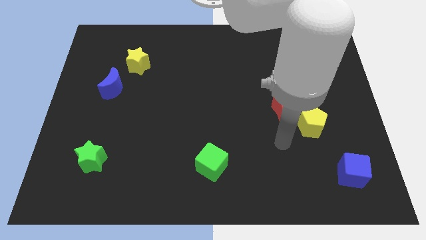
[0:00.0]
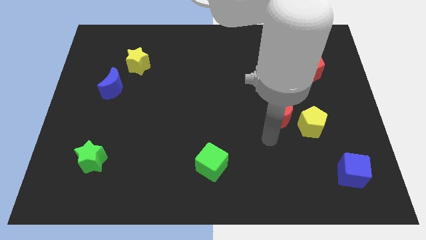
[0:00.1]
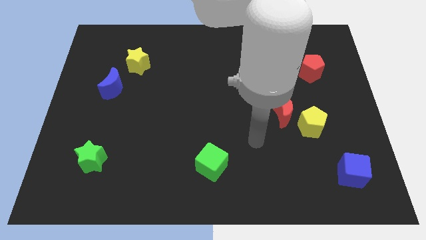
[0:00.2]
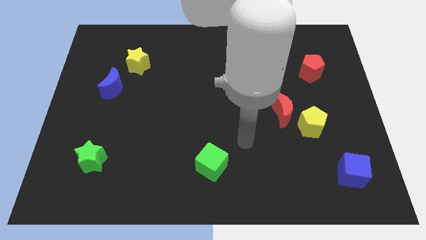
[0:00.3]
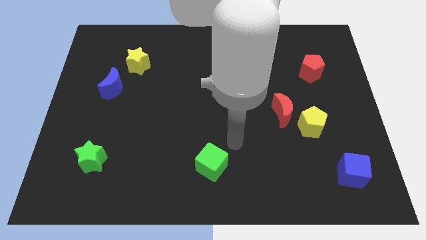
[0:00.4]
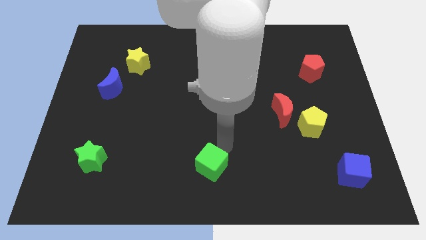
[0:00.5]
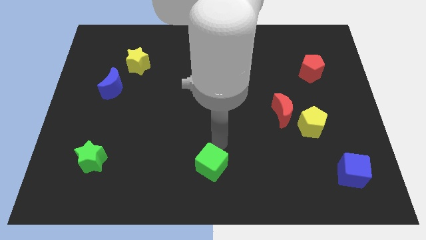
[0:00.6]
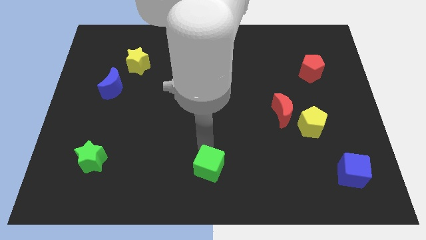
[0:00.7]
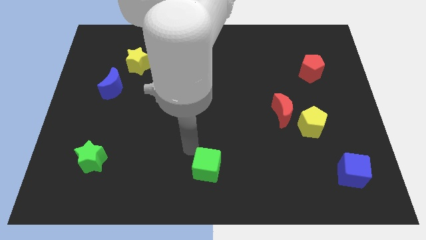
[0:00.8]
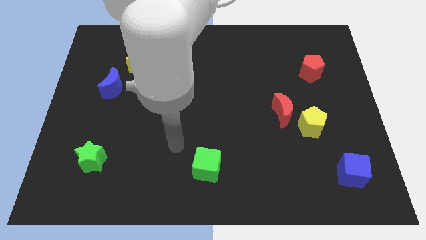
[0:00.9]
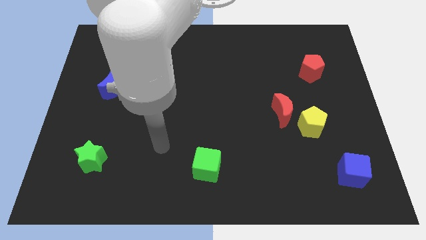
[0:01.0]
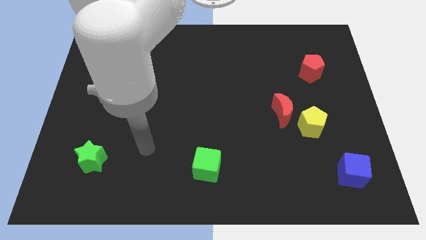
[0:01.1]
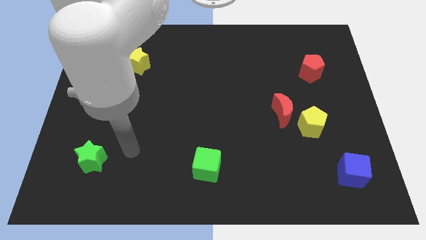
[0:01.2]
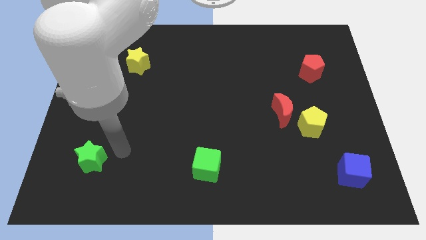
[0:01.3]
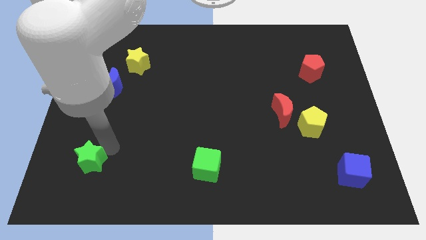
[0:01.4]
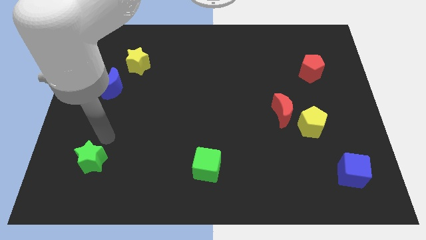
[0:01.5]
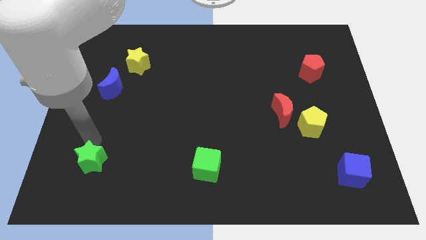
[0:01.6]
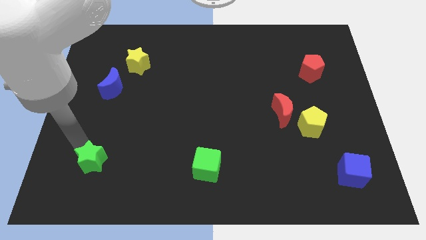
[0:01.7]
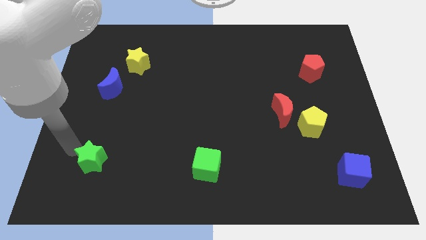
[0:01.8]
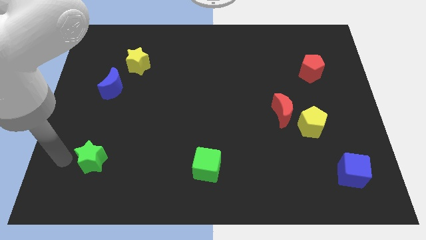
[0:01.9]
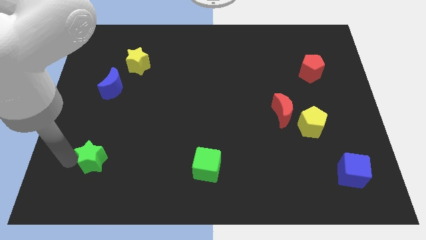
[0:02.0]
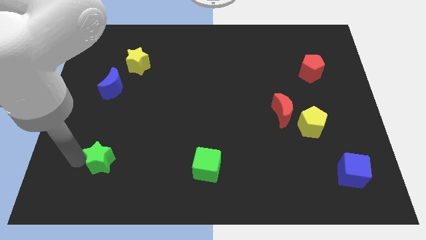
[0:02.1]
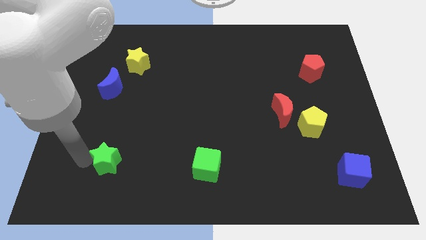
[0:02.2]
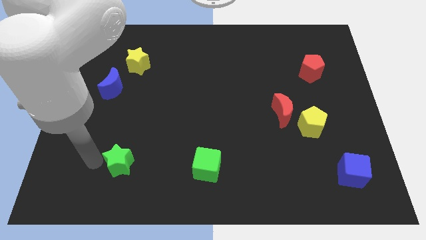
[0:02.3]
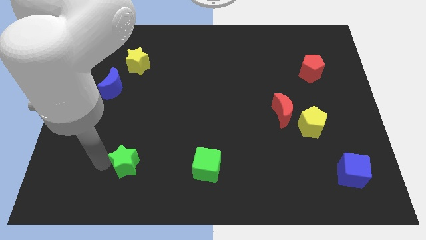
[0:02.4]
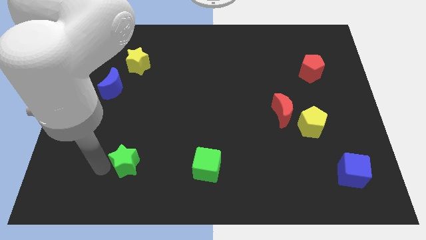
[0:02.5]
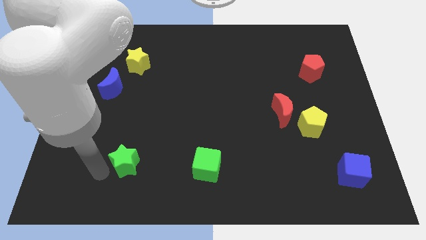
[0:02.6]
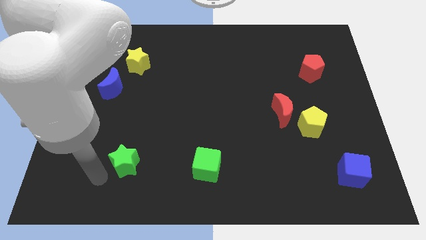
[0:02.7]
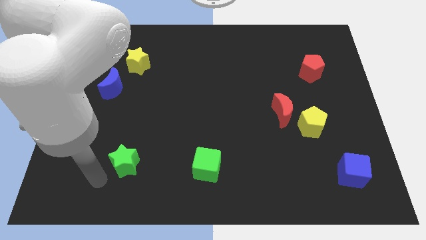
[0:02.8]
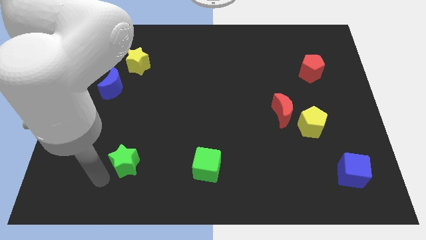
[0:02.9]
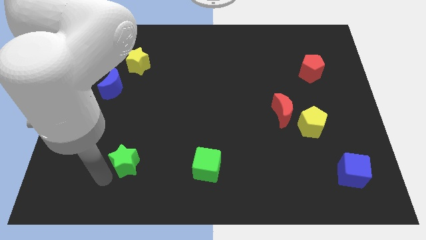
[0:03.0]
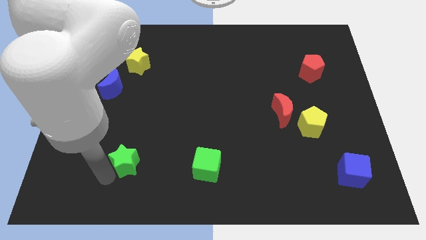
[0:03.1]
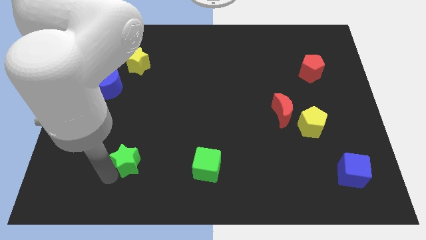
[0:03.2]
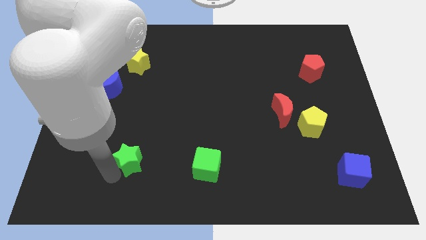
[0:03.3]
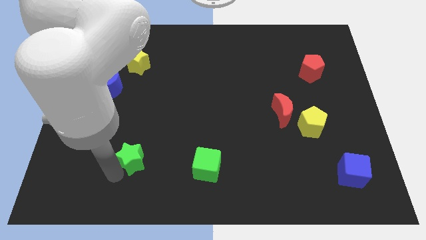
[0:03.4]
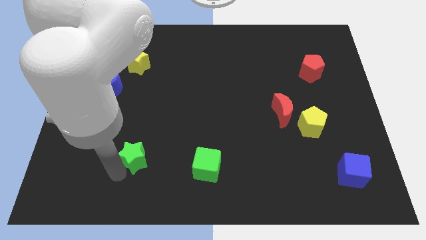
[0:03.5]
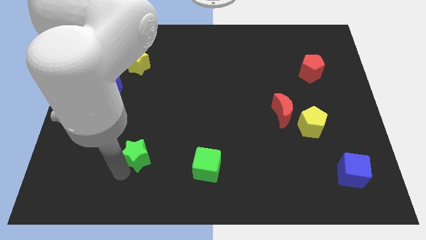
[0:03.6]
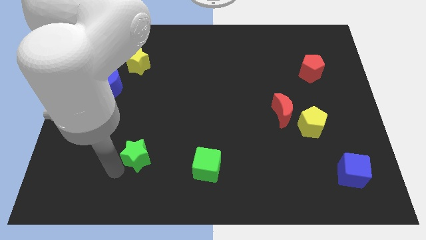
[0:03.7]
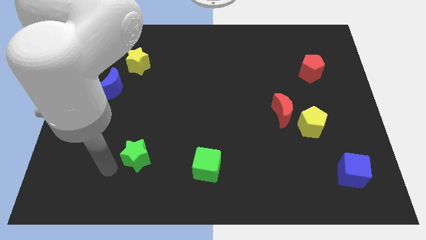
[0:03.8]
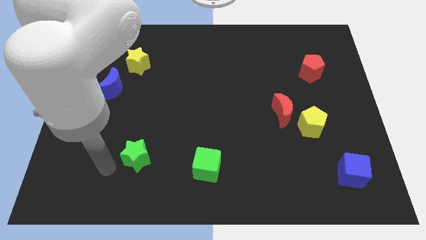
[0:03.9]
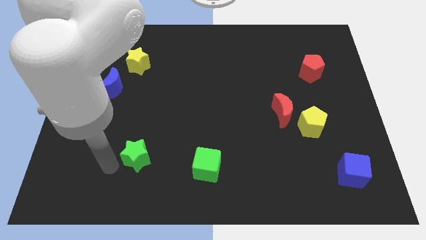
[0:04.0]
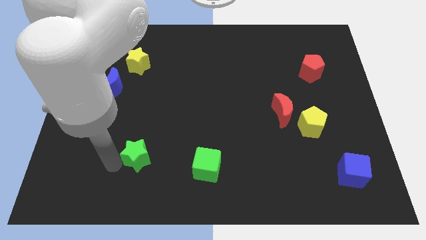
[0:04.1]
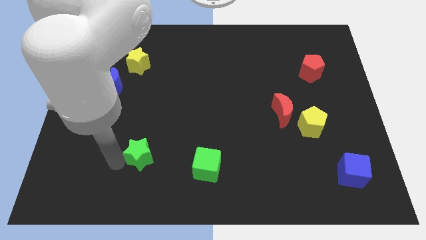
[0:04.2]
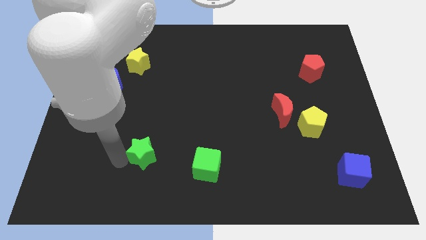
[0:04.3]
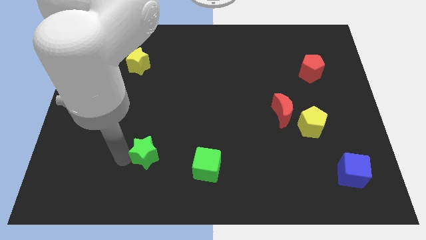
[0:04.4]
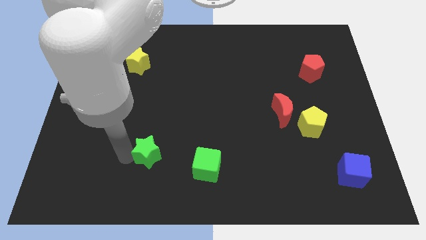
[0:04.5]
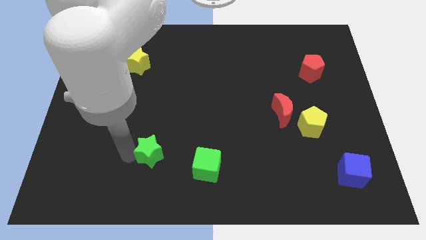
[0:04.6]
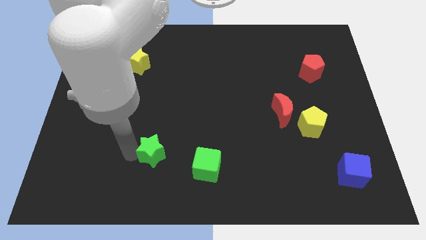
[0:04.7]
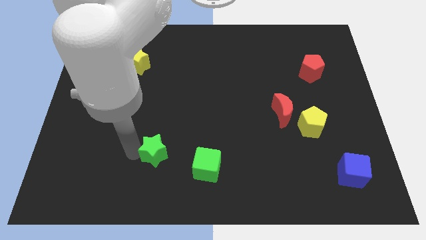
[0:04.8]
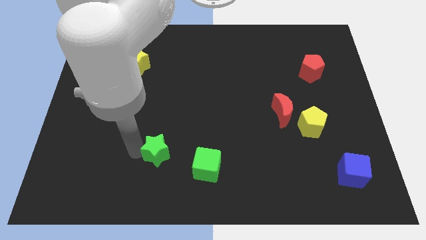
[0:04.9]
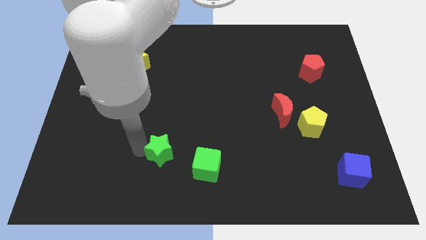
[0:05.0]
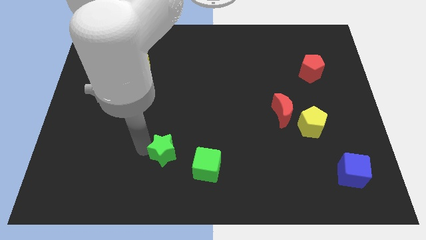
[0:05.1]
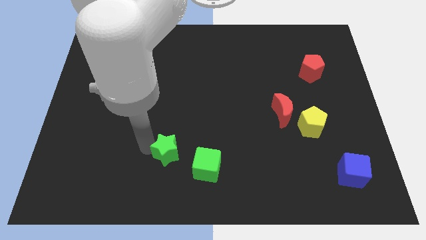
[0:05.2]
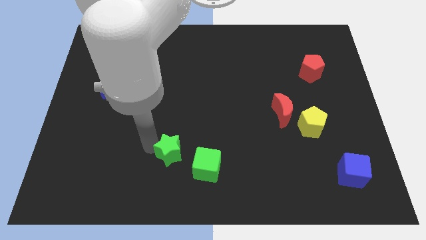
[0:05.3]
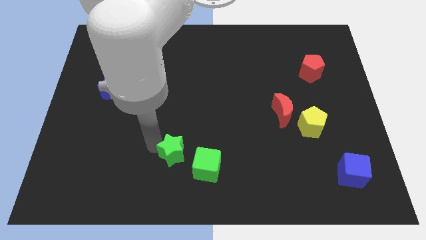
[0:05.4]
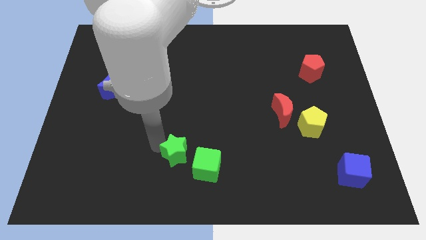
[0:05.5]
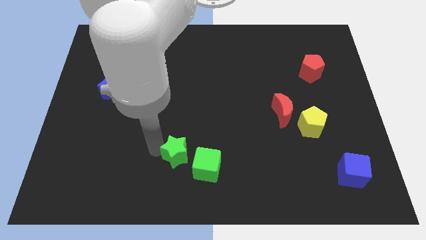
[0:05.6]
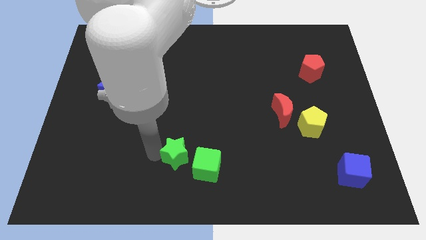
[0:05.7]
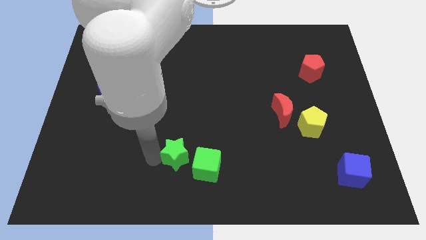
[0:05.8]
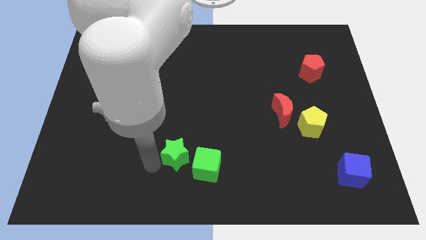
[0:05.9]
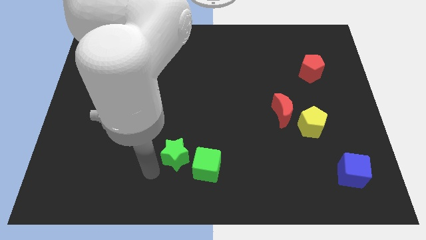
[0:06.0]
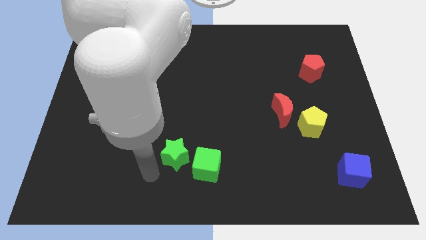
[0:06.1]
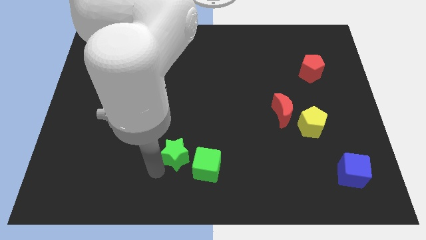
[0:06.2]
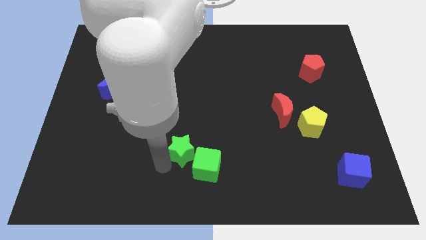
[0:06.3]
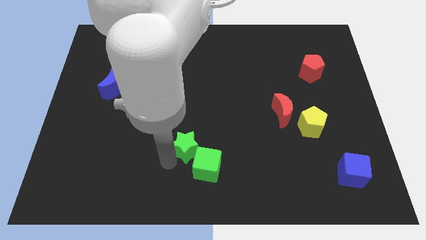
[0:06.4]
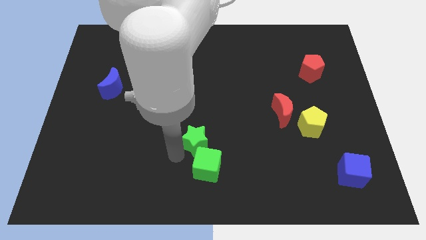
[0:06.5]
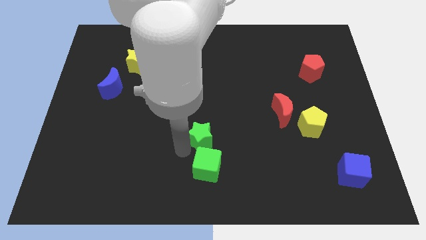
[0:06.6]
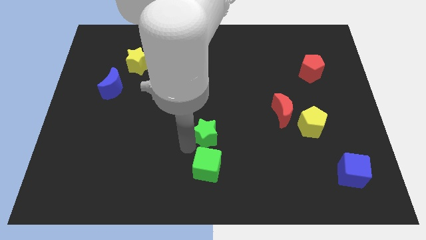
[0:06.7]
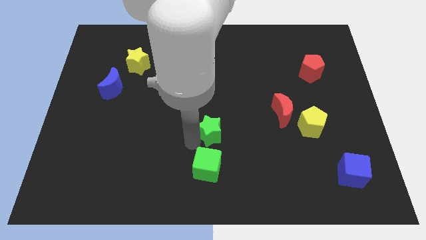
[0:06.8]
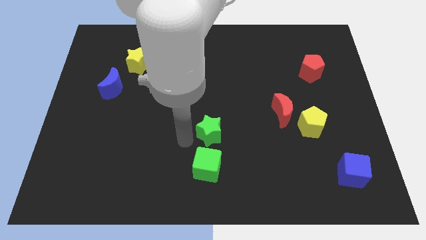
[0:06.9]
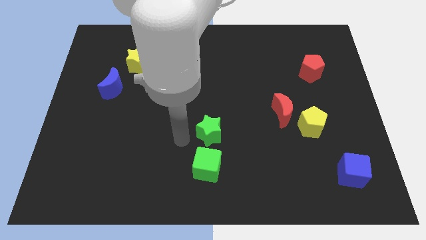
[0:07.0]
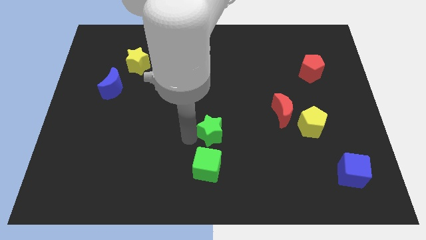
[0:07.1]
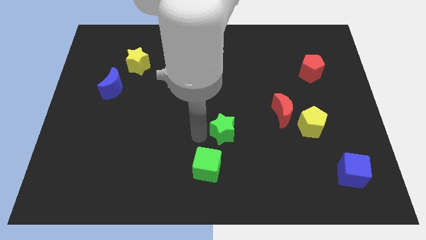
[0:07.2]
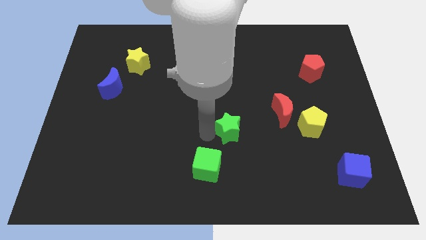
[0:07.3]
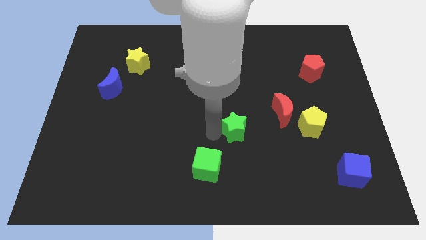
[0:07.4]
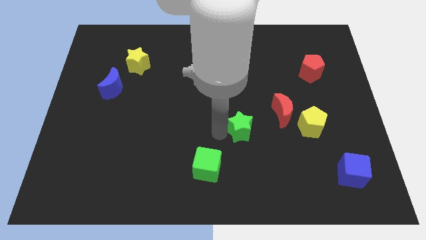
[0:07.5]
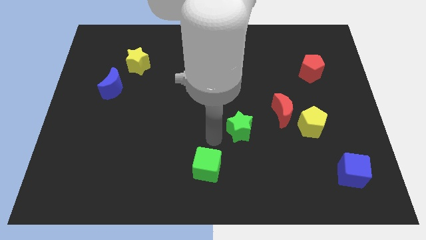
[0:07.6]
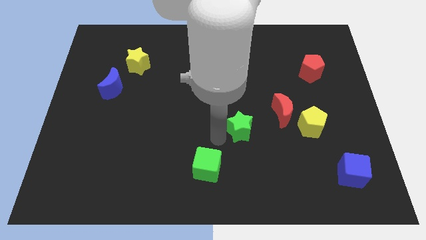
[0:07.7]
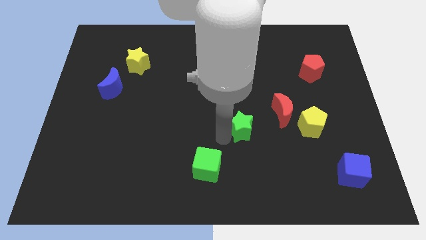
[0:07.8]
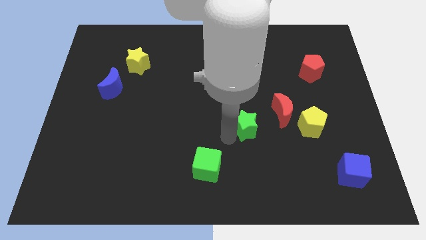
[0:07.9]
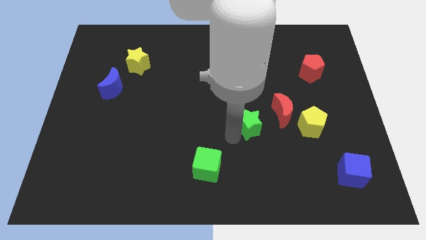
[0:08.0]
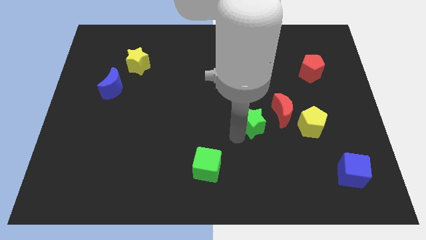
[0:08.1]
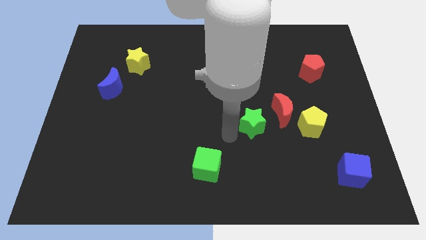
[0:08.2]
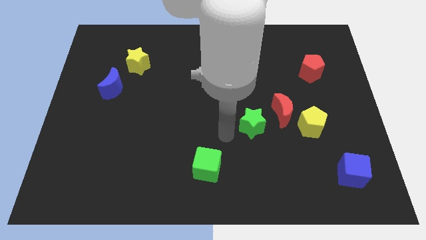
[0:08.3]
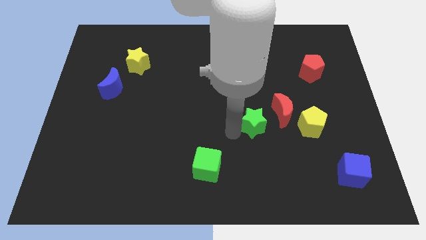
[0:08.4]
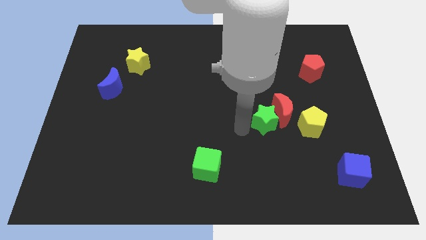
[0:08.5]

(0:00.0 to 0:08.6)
slide the green star close to the red moon
